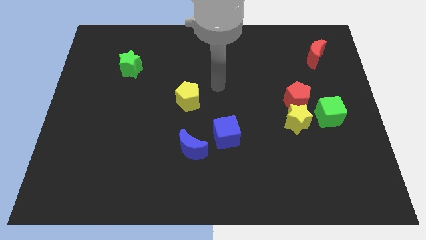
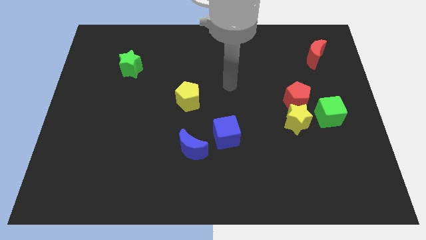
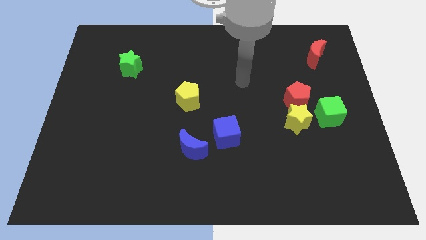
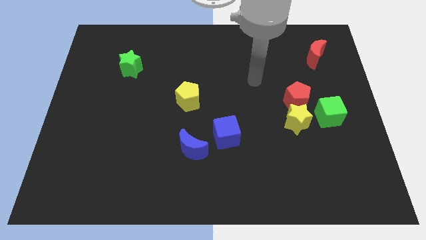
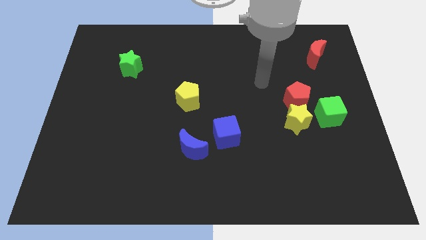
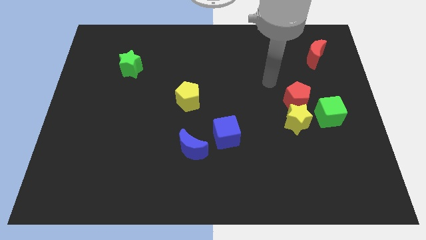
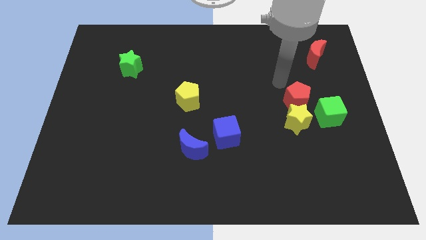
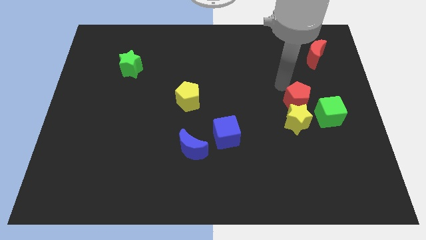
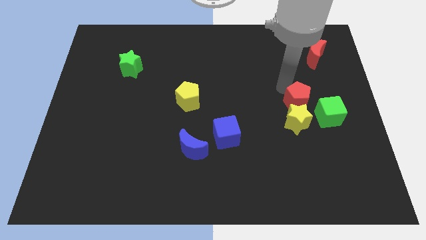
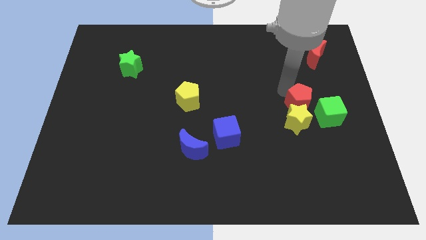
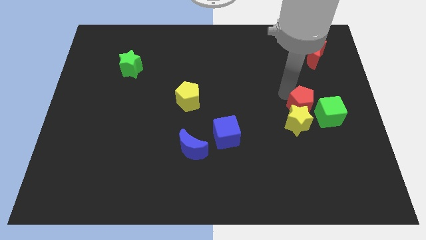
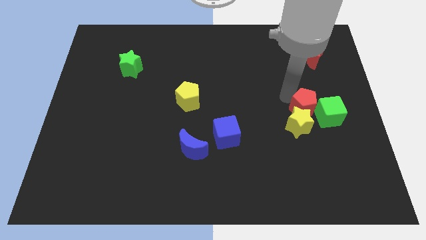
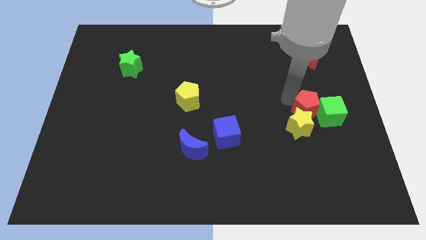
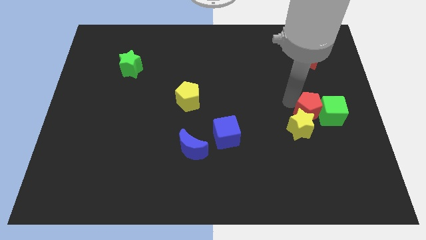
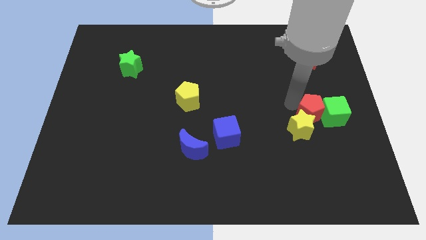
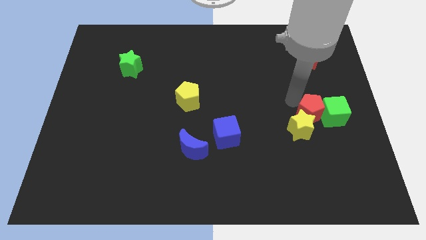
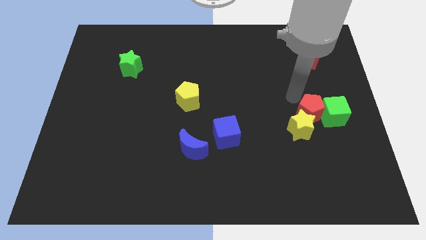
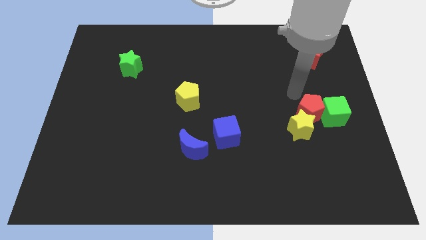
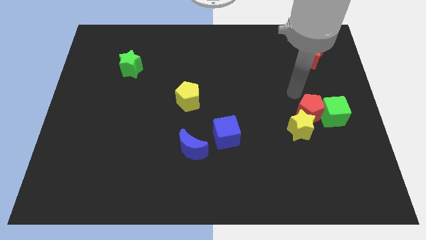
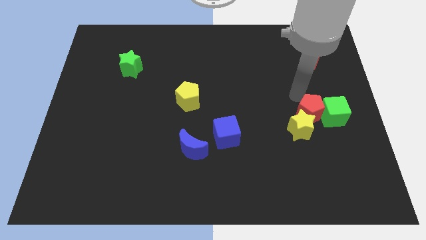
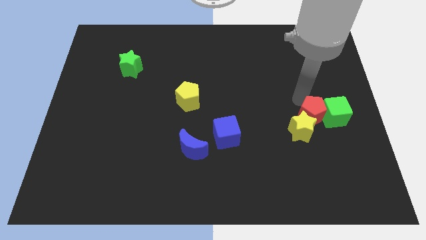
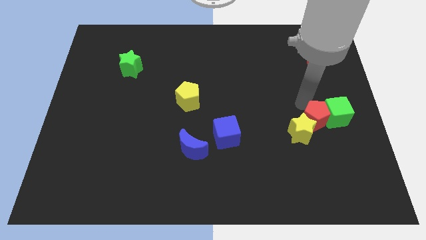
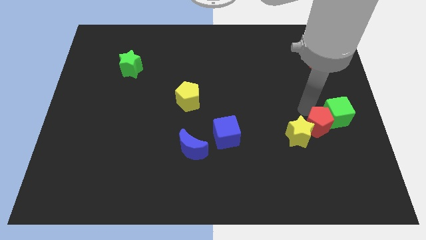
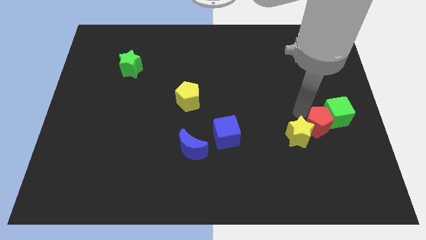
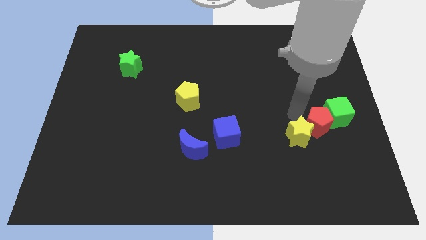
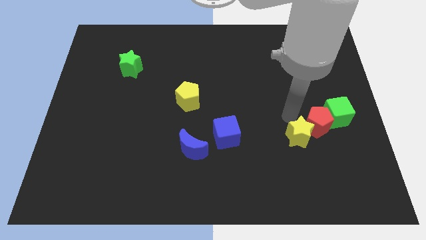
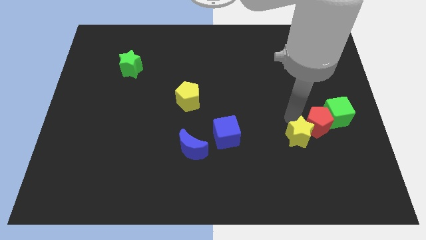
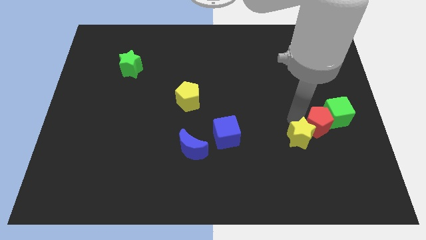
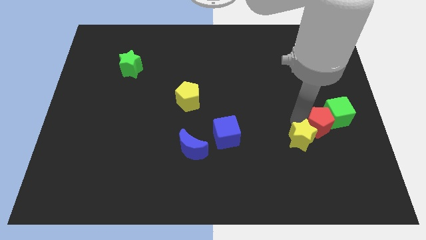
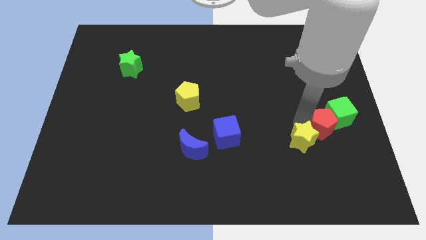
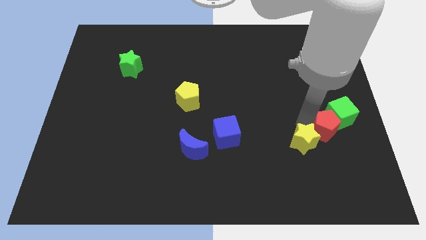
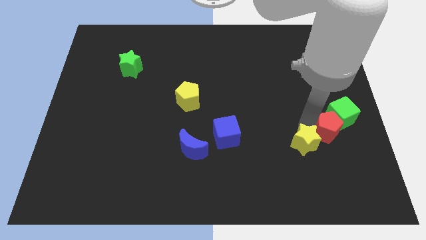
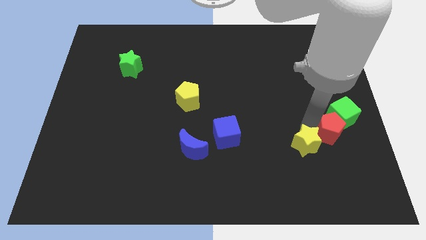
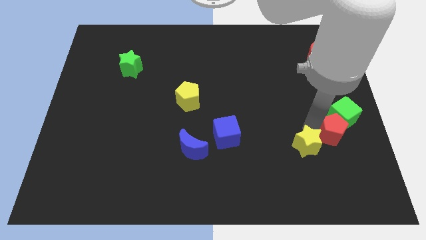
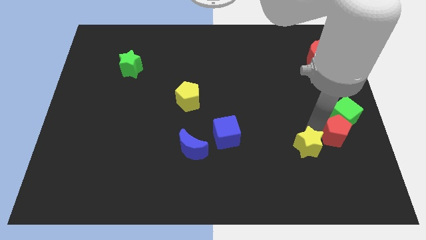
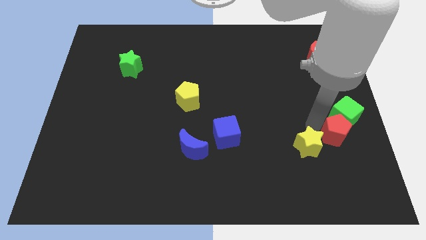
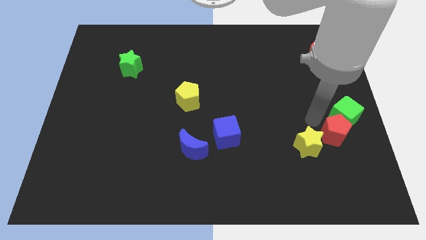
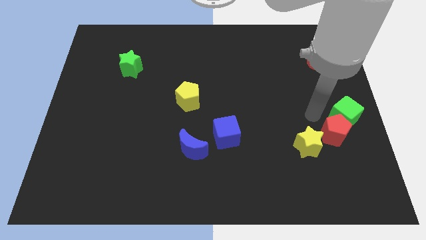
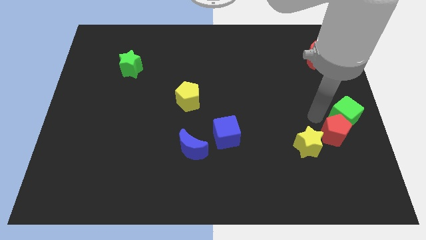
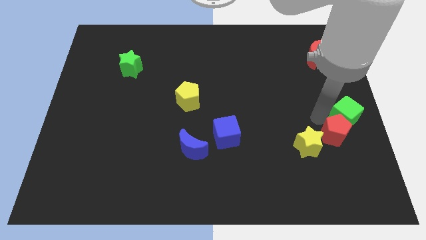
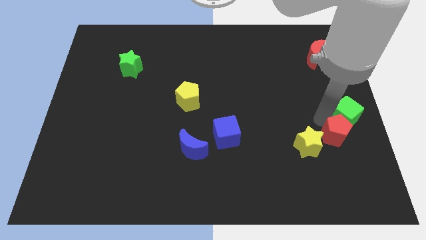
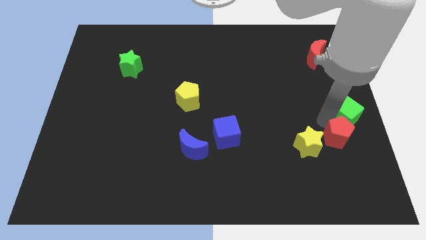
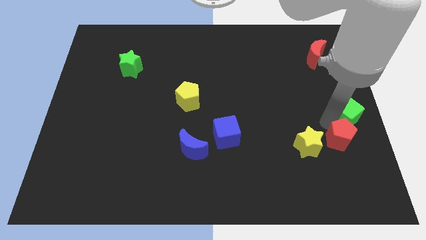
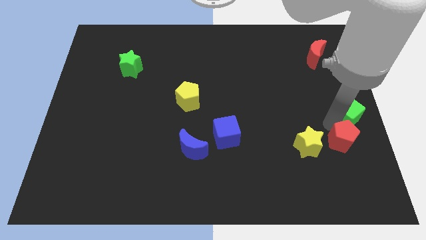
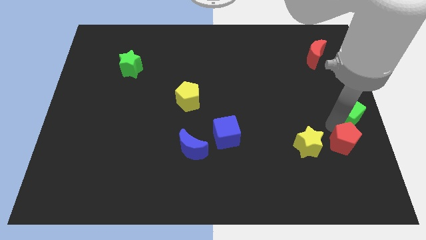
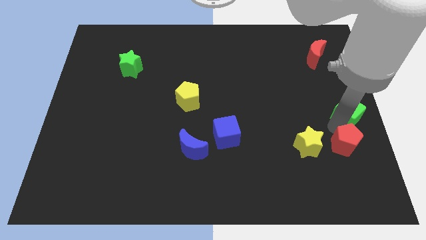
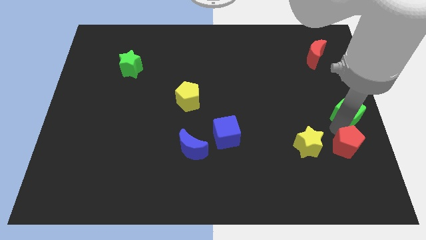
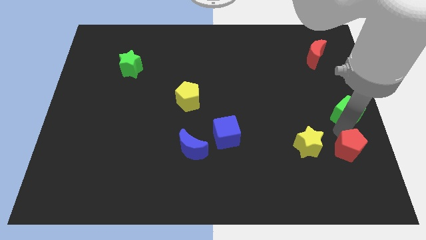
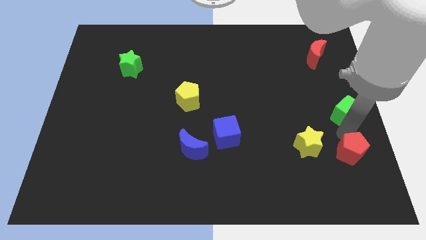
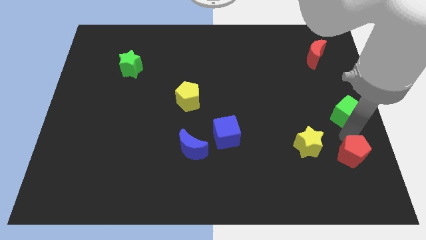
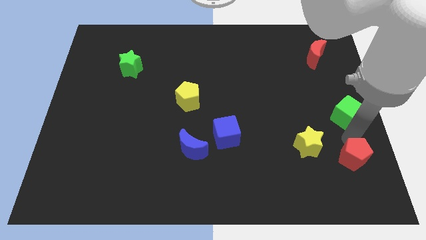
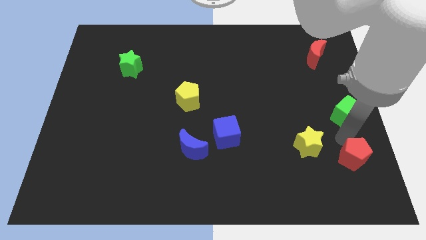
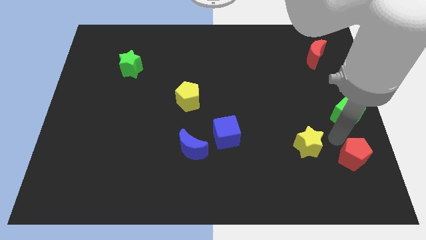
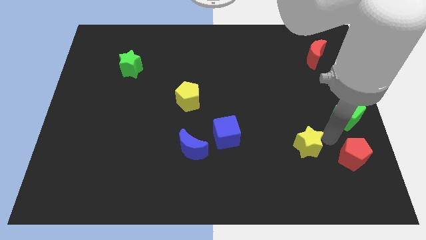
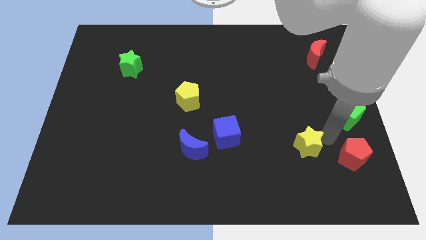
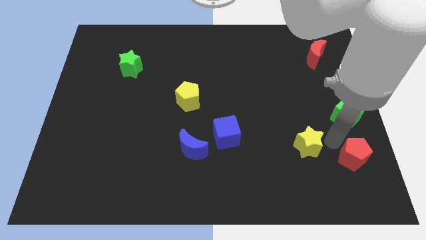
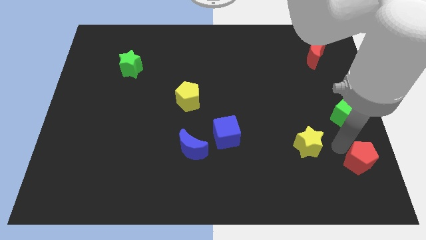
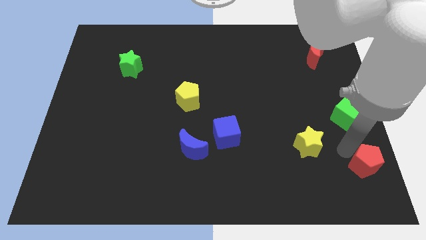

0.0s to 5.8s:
push the red pentagon to the bottom right

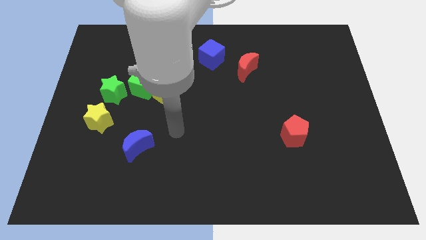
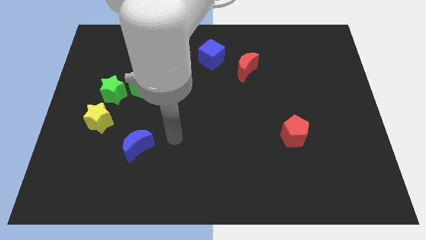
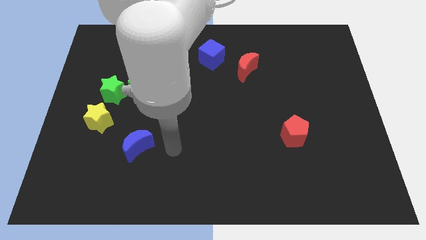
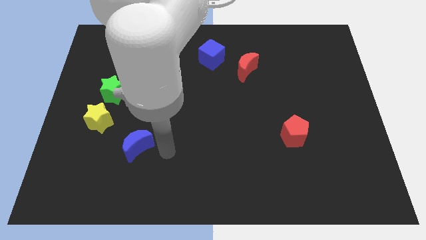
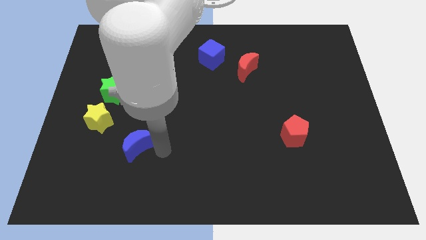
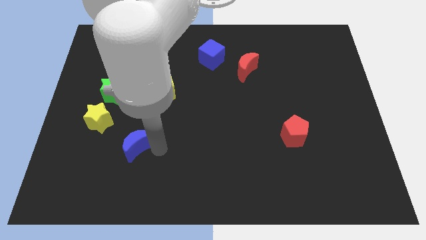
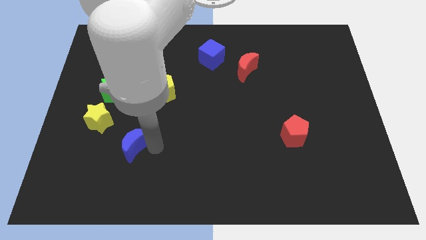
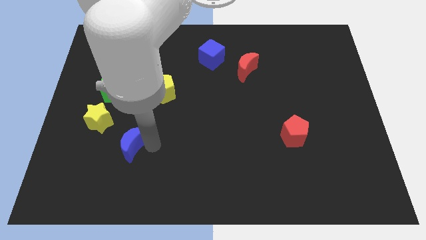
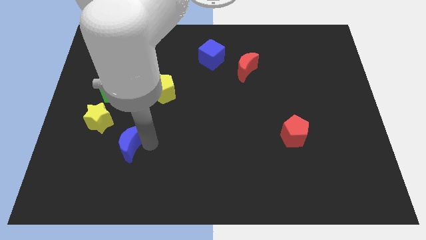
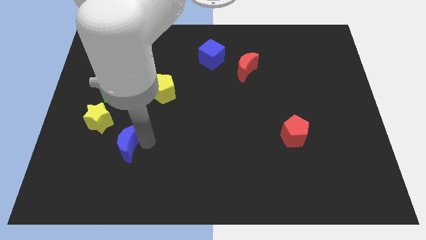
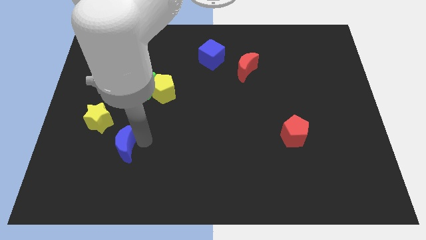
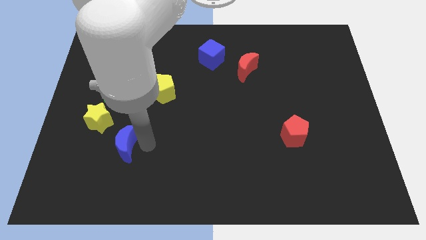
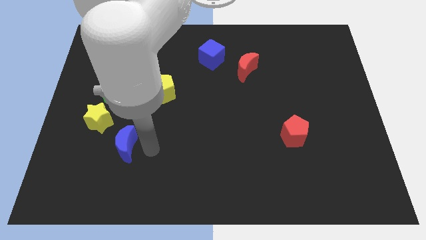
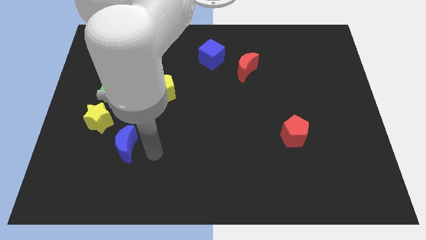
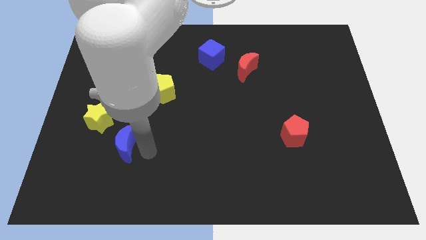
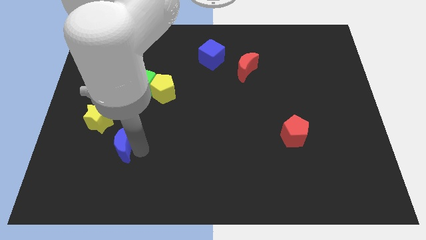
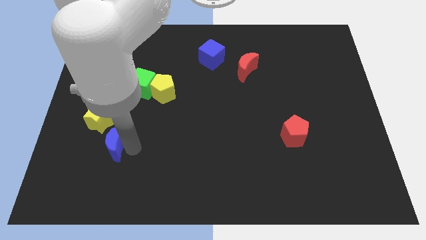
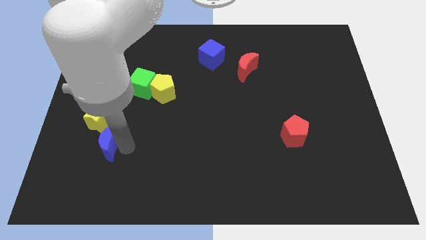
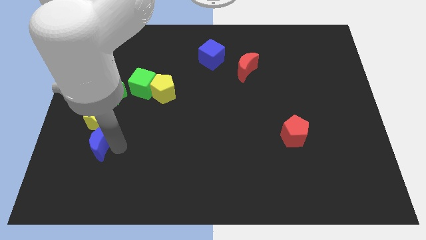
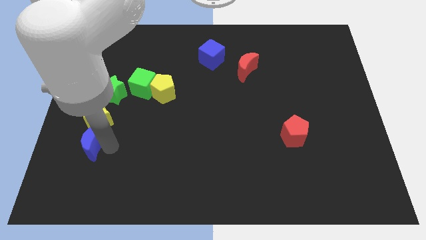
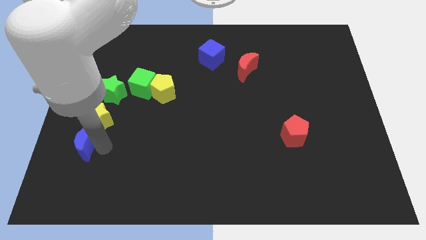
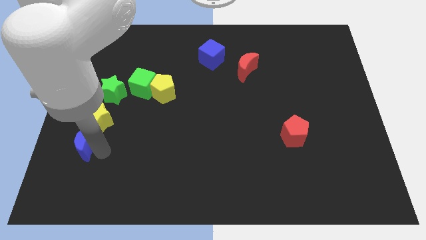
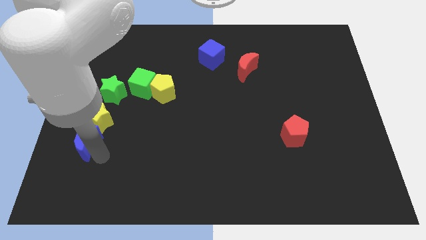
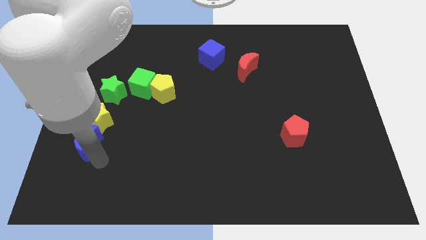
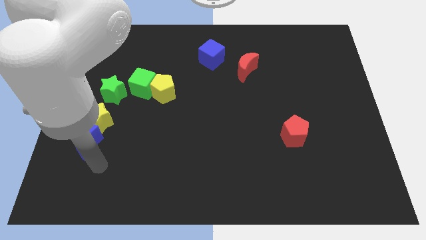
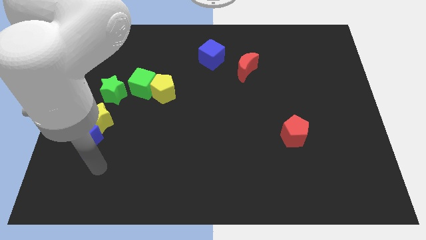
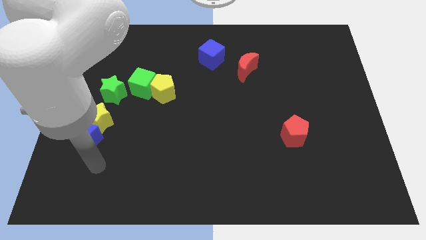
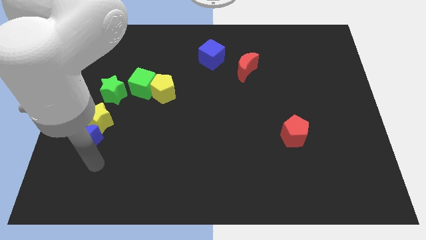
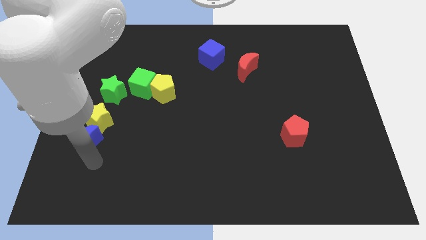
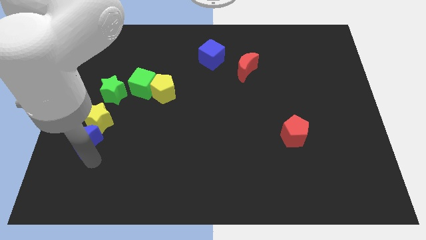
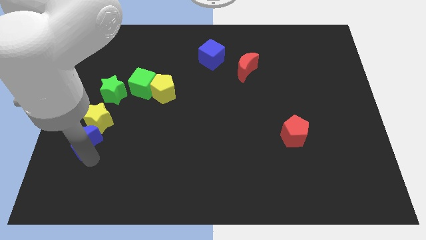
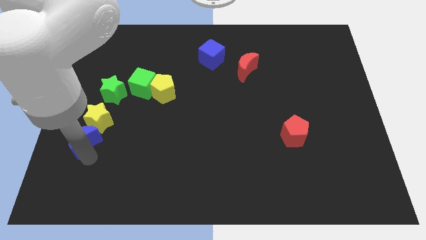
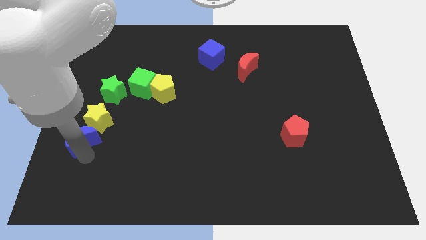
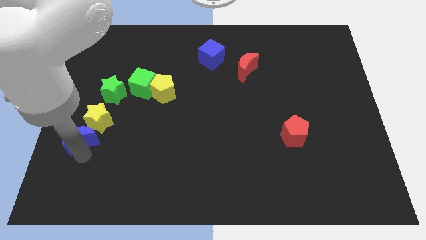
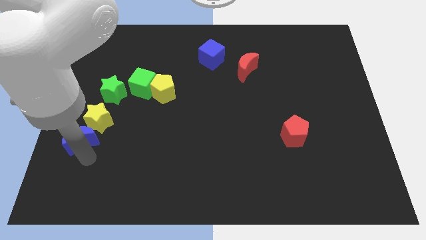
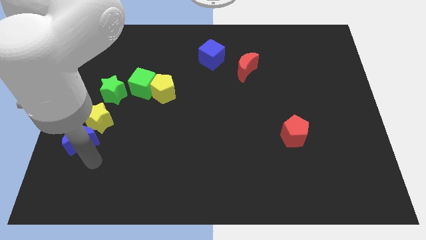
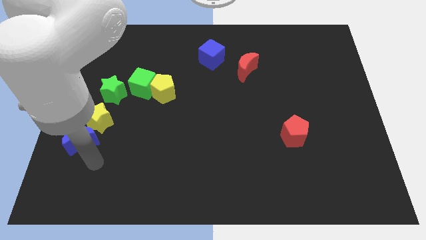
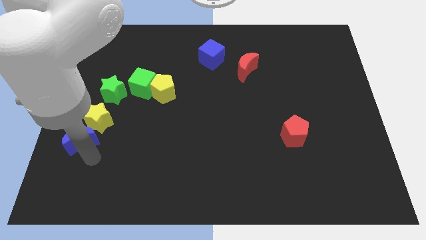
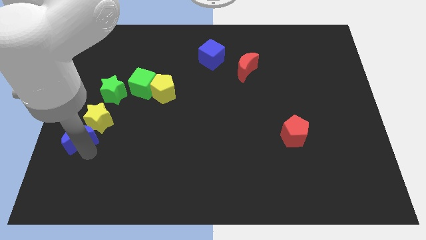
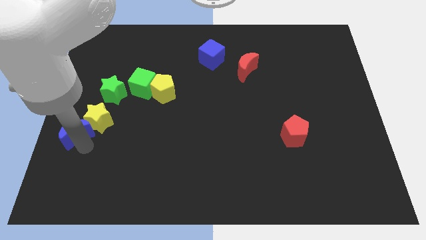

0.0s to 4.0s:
slide the blue moon to the left side of the board
